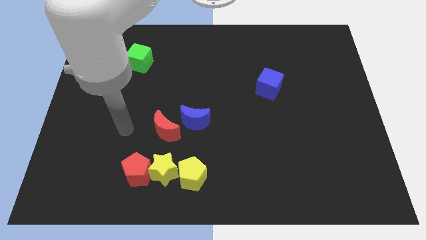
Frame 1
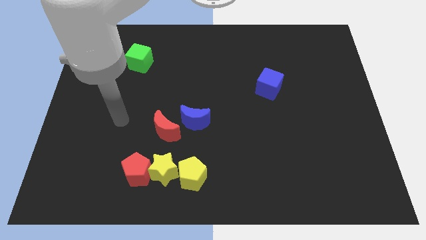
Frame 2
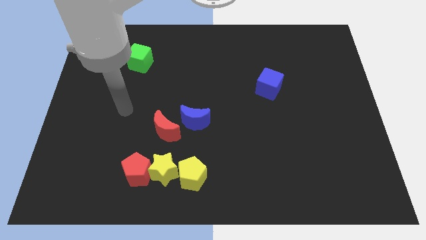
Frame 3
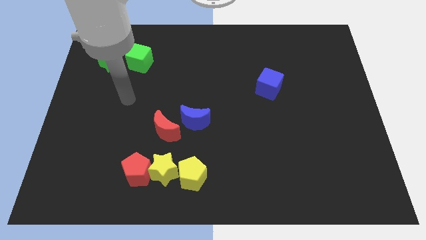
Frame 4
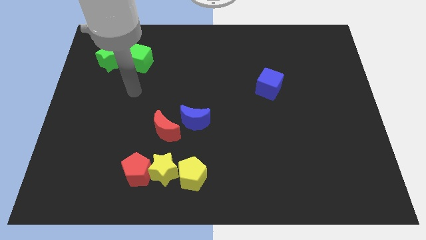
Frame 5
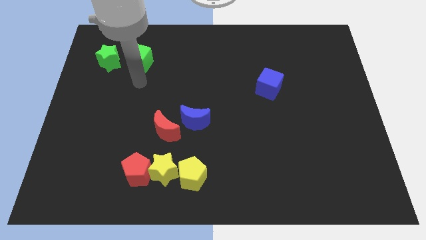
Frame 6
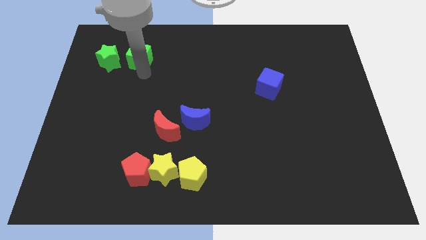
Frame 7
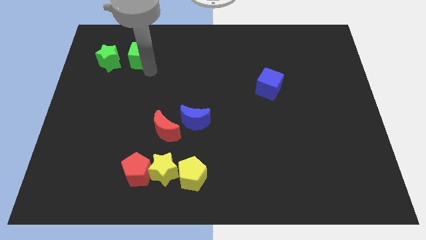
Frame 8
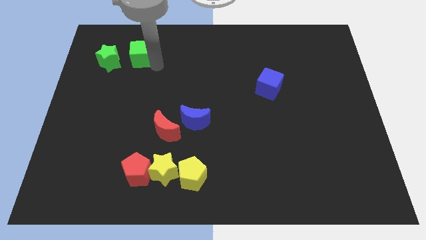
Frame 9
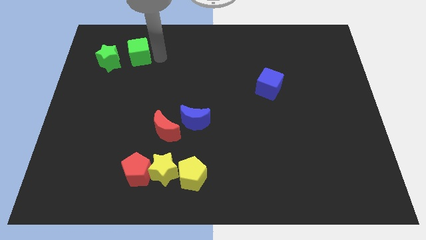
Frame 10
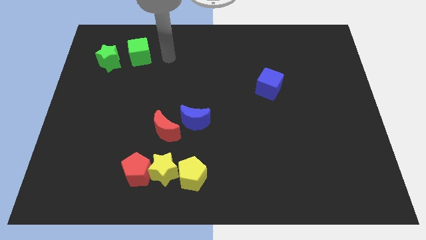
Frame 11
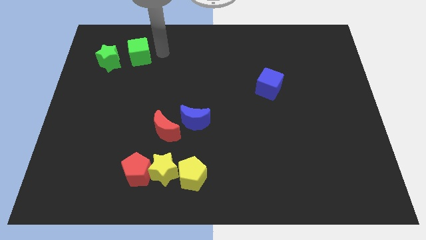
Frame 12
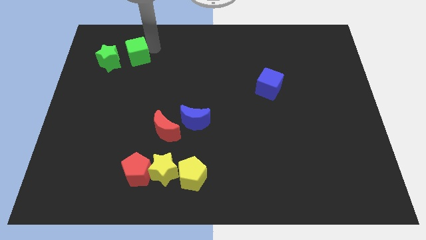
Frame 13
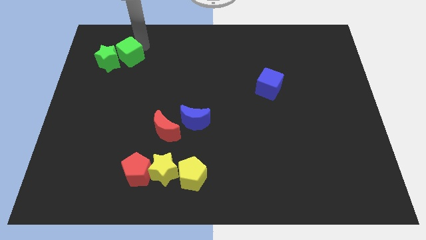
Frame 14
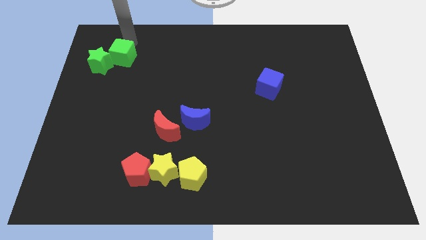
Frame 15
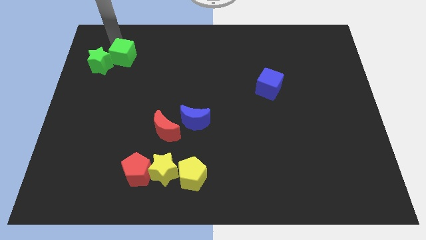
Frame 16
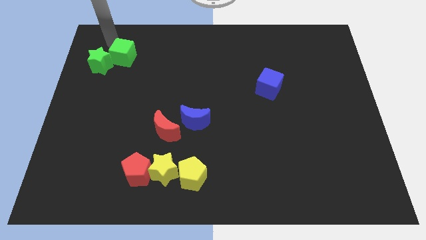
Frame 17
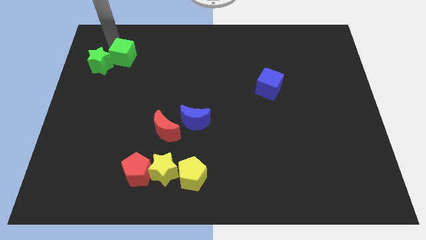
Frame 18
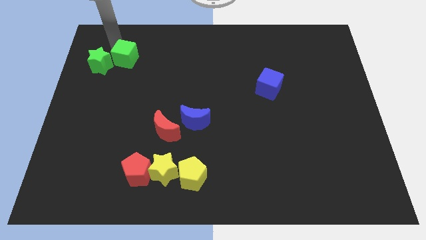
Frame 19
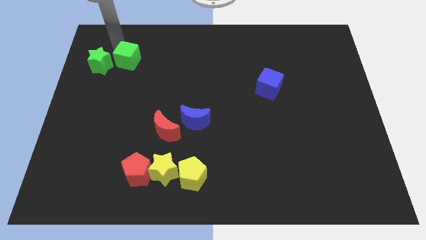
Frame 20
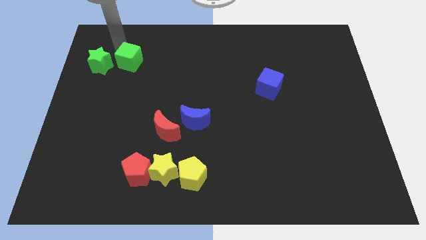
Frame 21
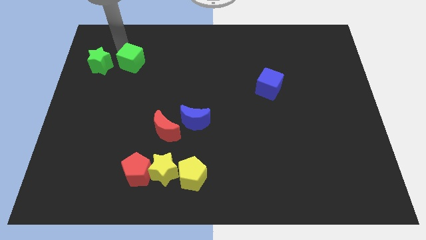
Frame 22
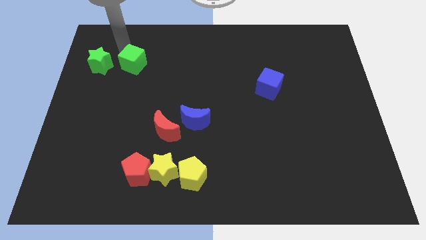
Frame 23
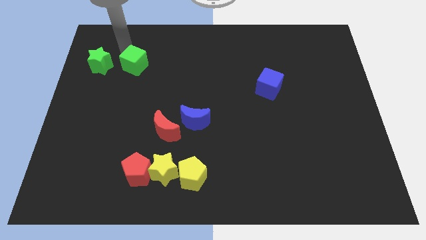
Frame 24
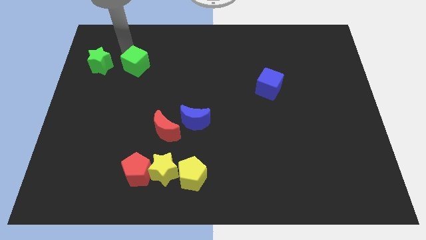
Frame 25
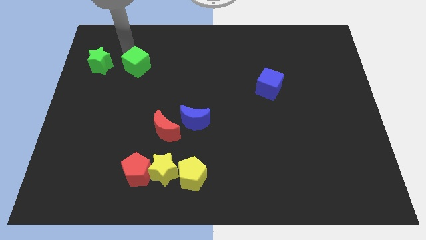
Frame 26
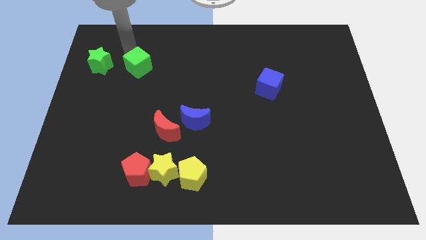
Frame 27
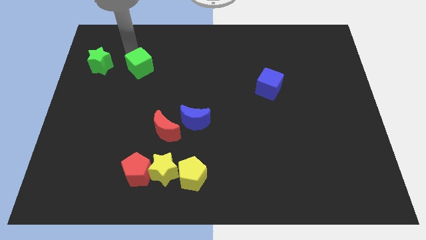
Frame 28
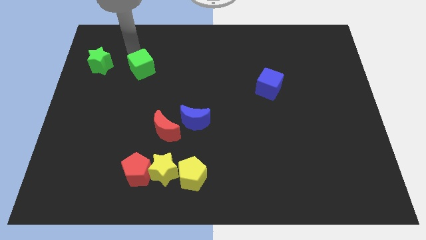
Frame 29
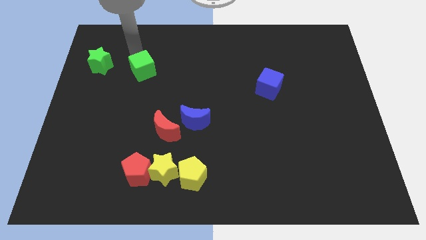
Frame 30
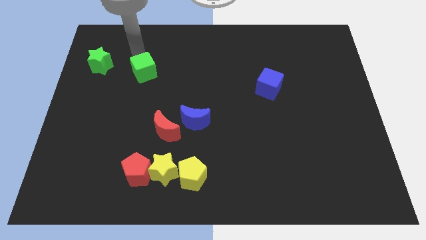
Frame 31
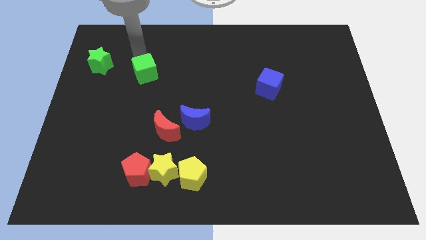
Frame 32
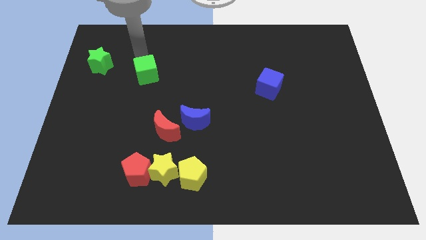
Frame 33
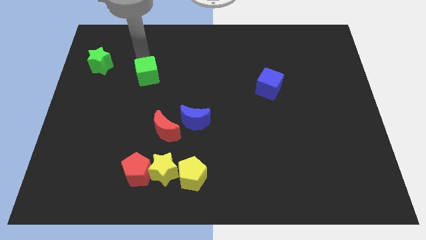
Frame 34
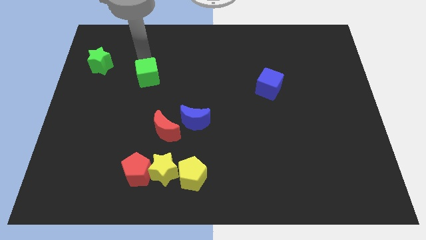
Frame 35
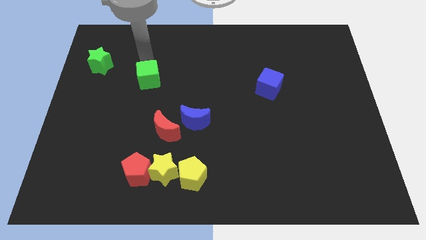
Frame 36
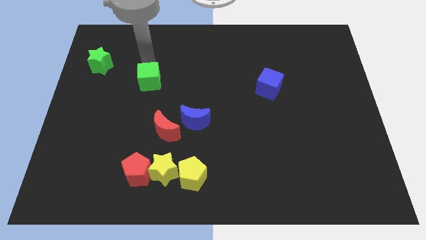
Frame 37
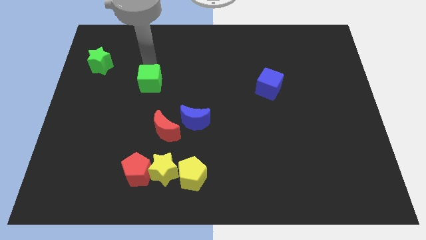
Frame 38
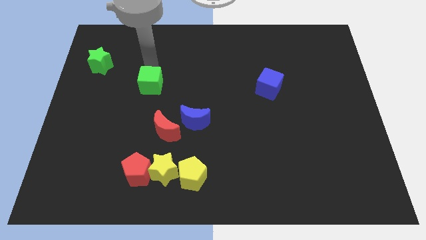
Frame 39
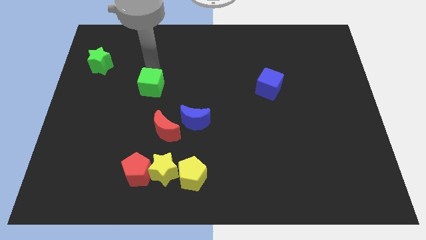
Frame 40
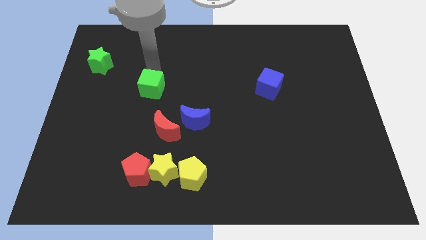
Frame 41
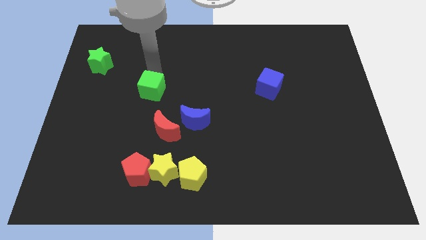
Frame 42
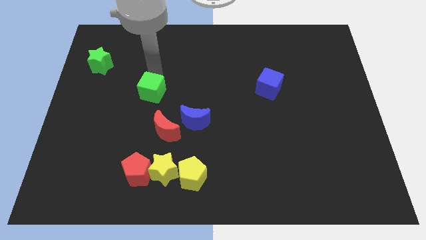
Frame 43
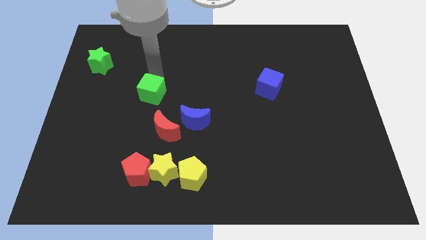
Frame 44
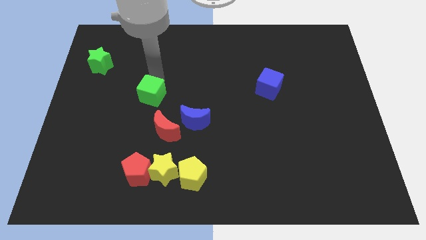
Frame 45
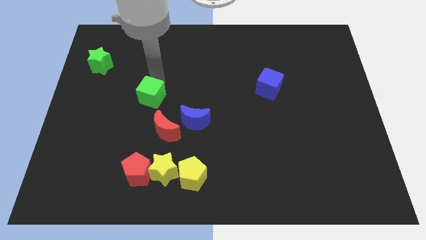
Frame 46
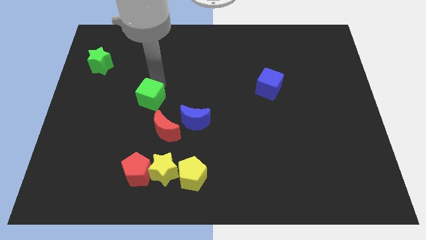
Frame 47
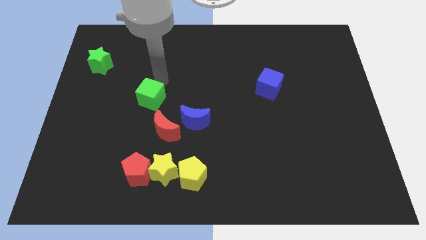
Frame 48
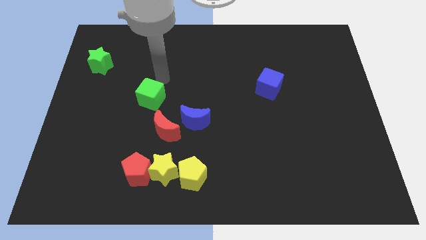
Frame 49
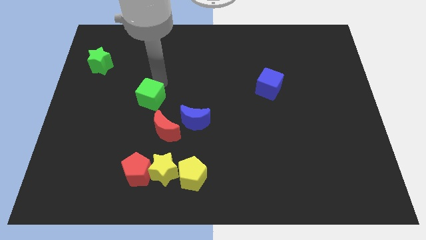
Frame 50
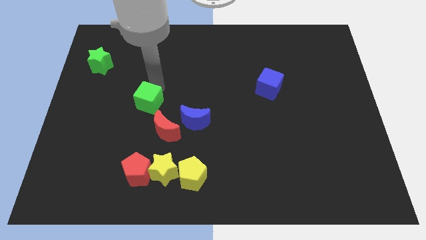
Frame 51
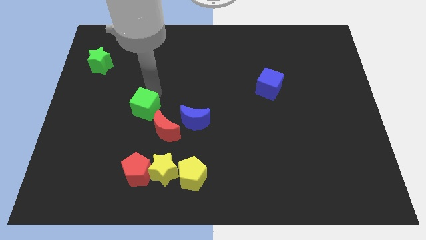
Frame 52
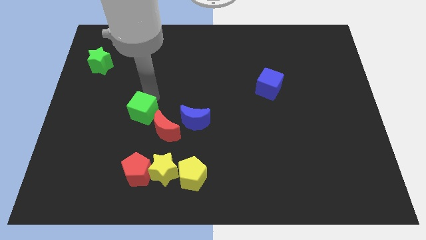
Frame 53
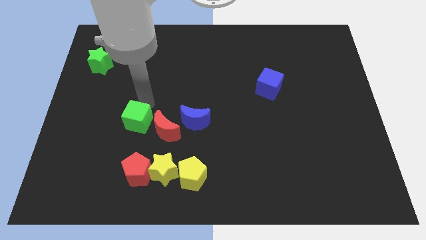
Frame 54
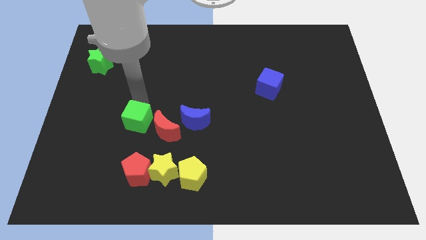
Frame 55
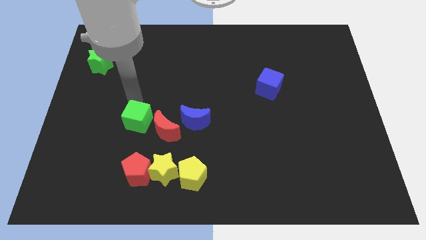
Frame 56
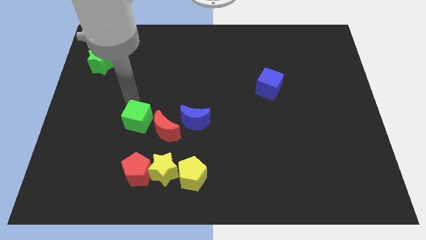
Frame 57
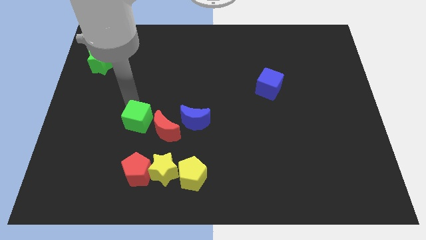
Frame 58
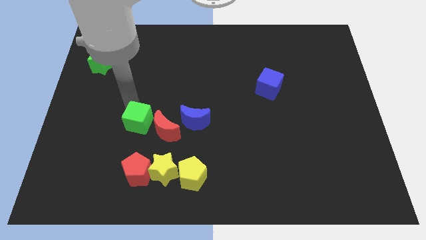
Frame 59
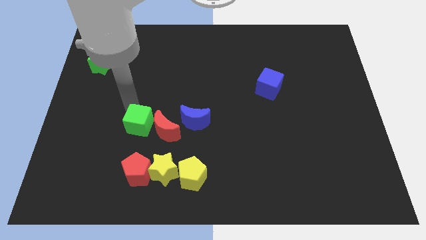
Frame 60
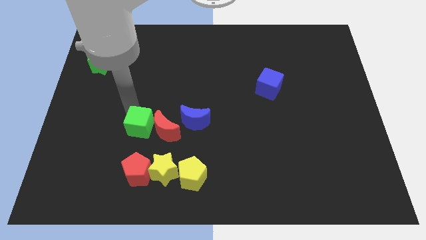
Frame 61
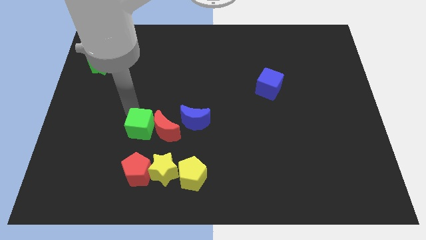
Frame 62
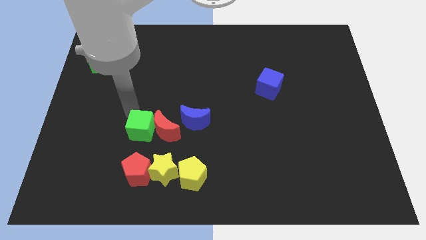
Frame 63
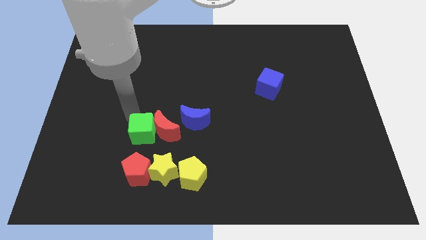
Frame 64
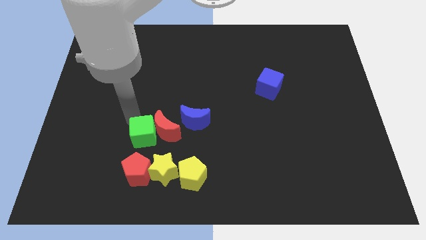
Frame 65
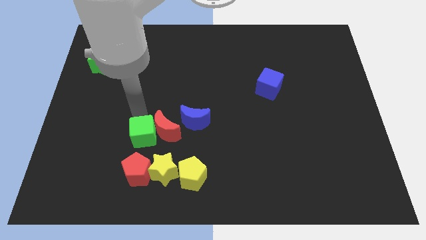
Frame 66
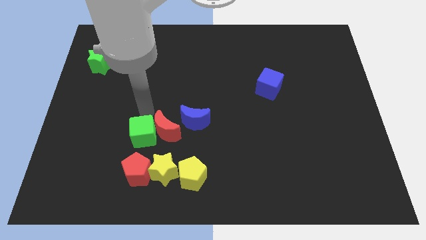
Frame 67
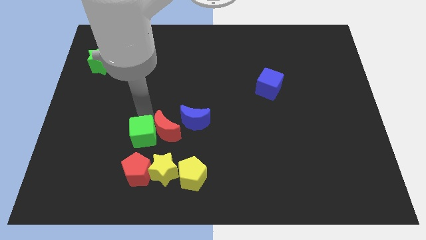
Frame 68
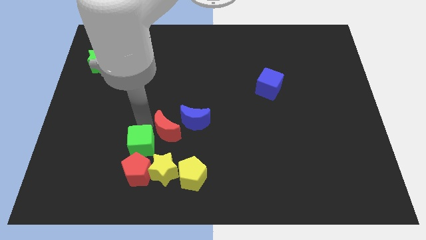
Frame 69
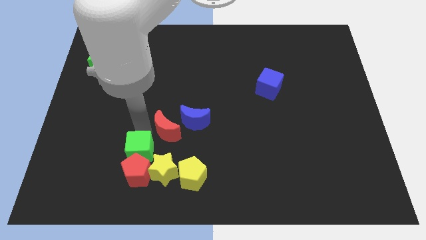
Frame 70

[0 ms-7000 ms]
move the green cube next to the red pentagon
